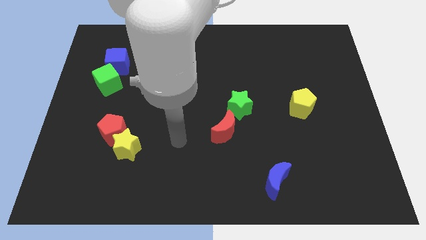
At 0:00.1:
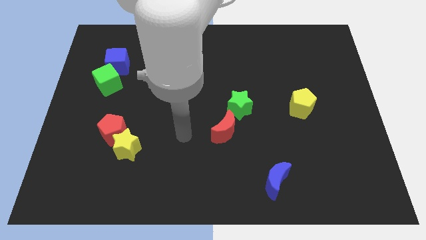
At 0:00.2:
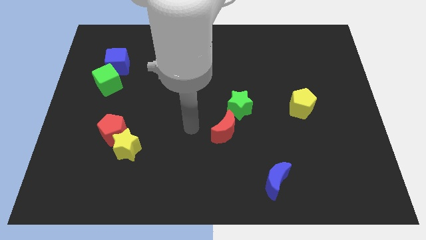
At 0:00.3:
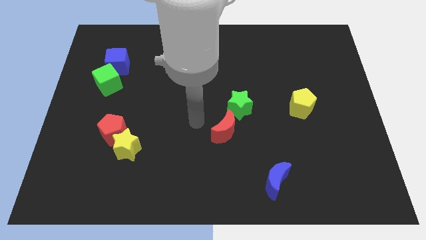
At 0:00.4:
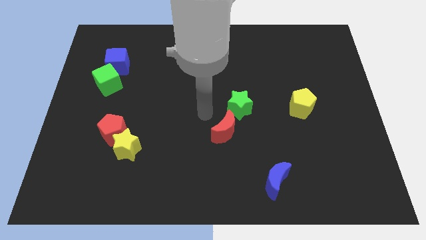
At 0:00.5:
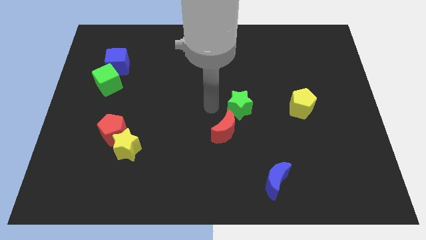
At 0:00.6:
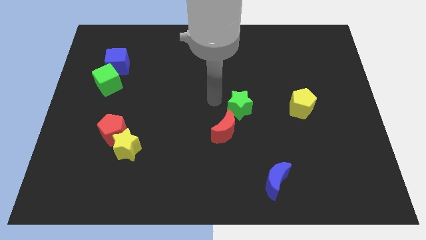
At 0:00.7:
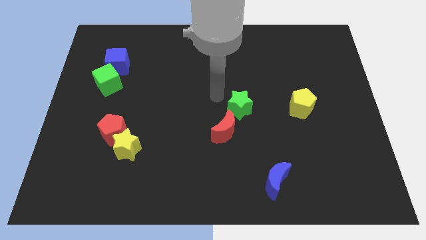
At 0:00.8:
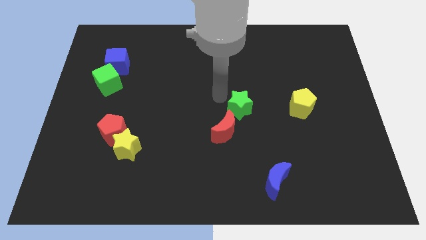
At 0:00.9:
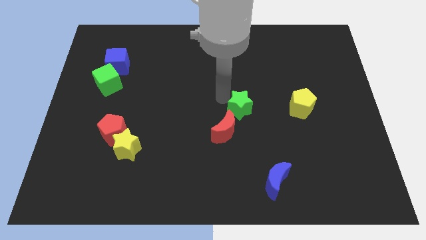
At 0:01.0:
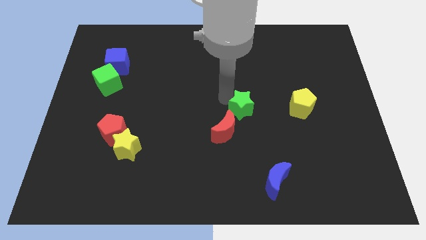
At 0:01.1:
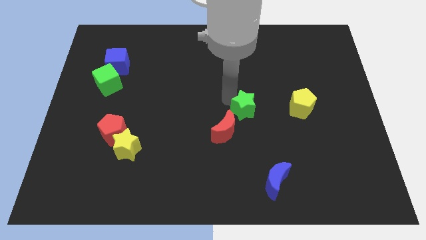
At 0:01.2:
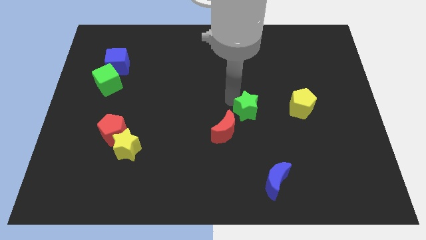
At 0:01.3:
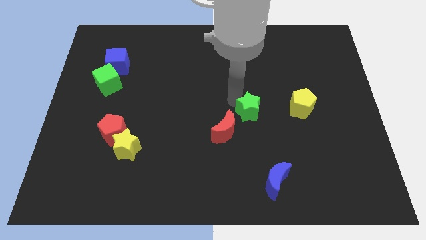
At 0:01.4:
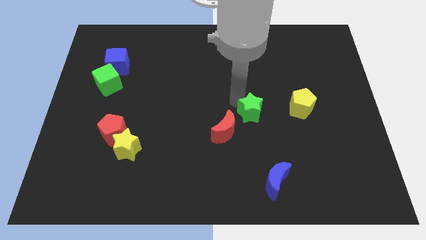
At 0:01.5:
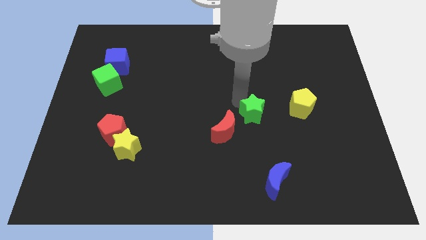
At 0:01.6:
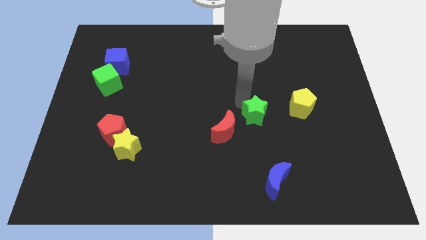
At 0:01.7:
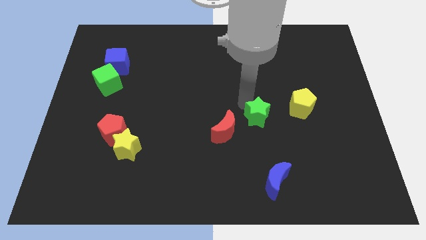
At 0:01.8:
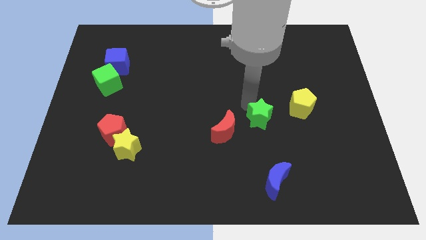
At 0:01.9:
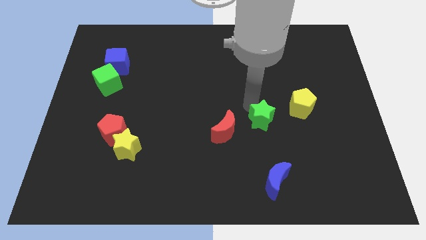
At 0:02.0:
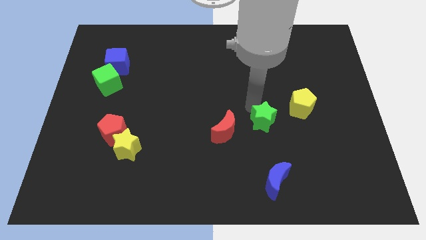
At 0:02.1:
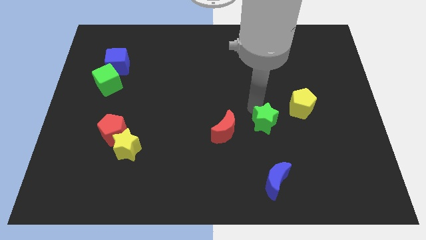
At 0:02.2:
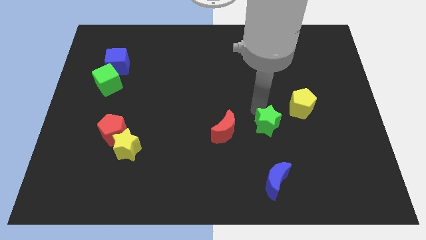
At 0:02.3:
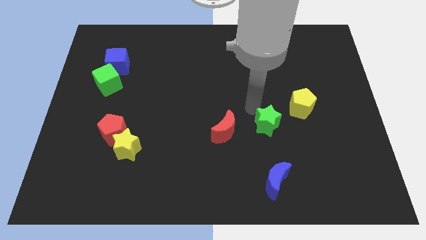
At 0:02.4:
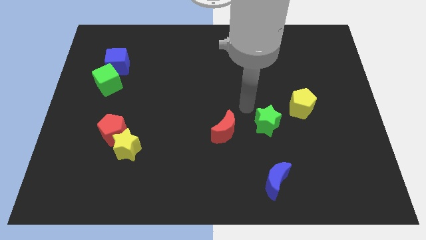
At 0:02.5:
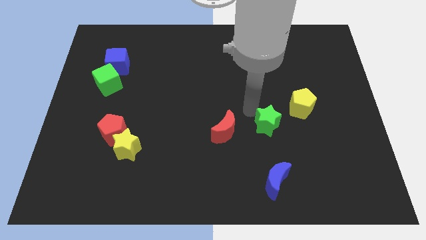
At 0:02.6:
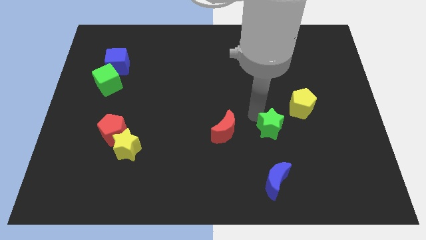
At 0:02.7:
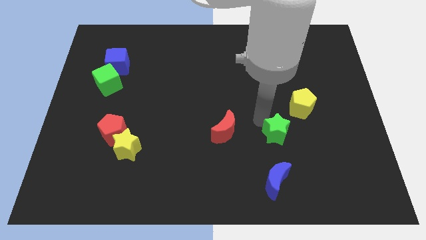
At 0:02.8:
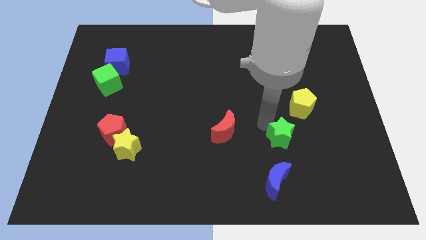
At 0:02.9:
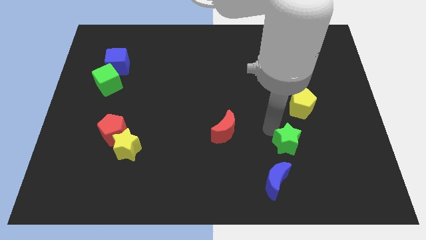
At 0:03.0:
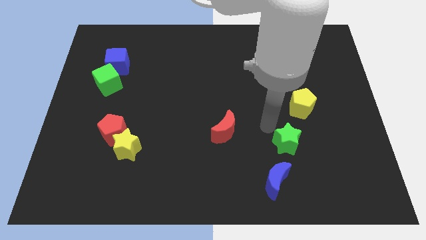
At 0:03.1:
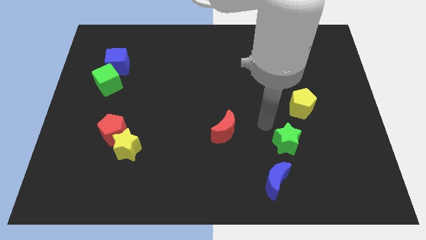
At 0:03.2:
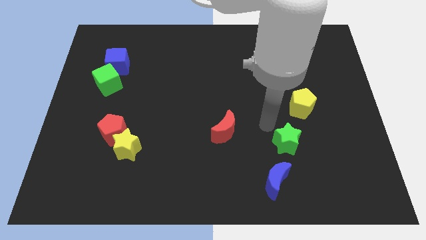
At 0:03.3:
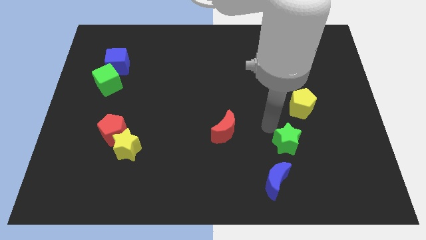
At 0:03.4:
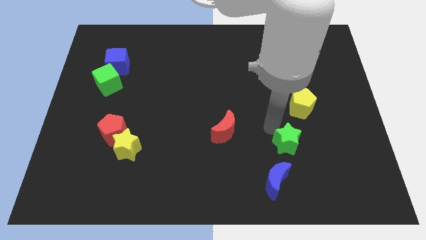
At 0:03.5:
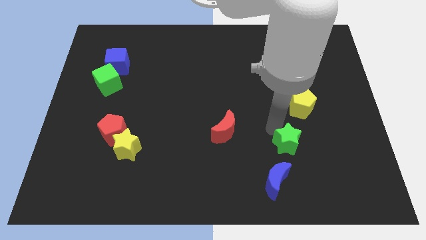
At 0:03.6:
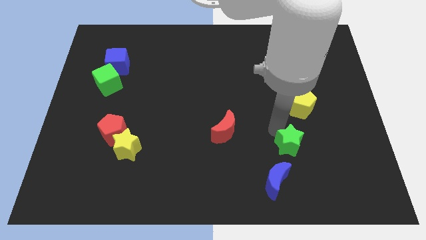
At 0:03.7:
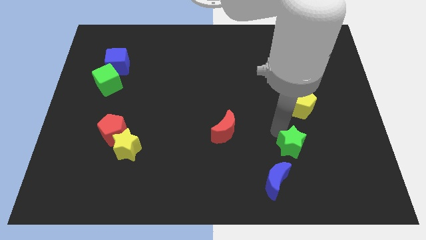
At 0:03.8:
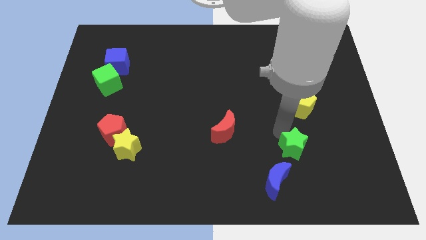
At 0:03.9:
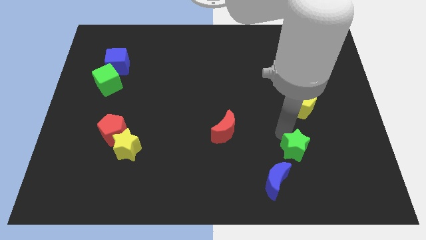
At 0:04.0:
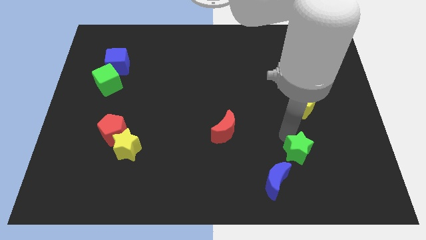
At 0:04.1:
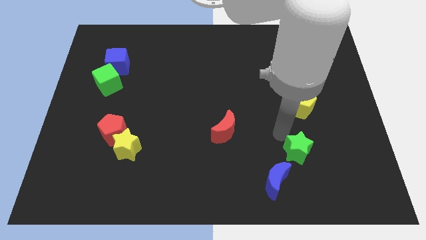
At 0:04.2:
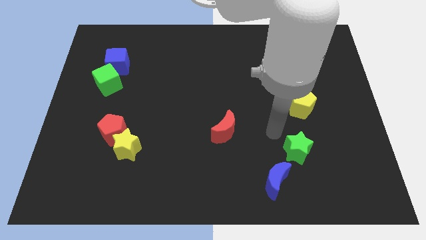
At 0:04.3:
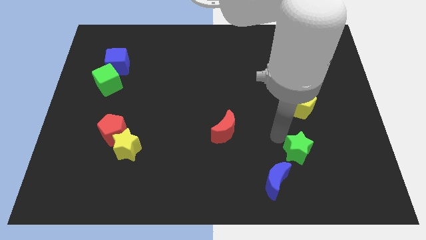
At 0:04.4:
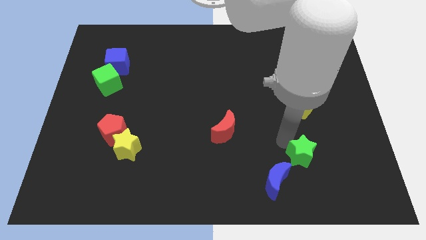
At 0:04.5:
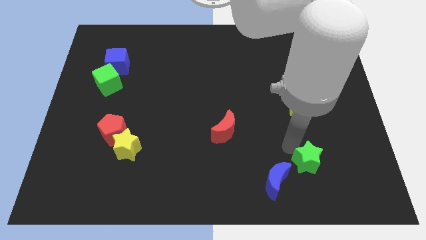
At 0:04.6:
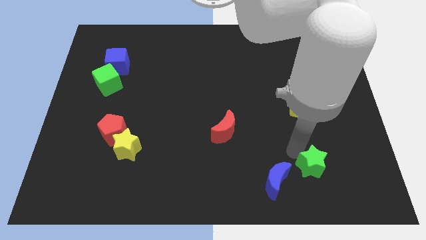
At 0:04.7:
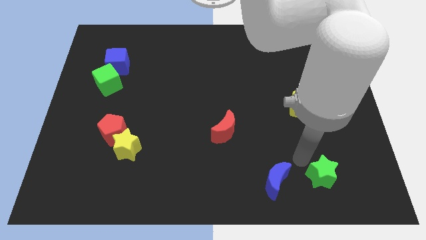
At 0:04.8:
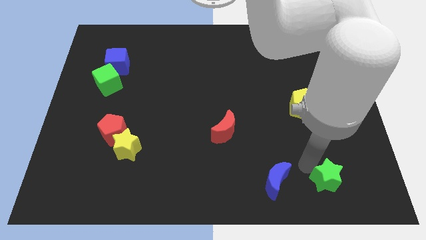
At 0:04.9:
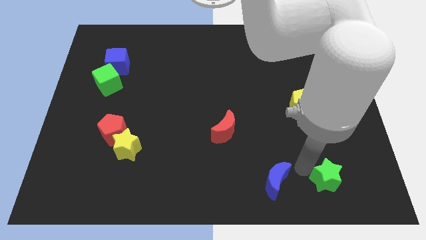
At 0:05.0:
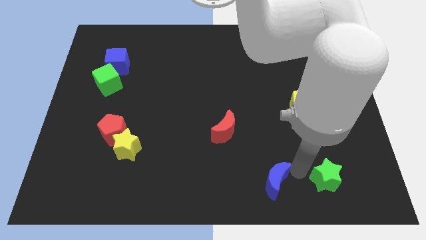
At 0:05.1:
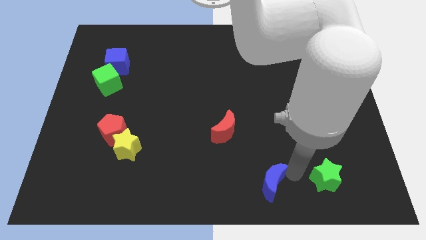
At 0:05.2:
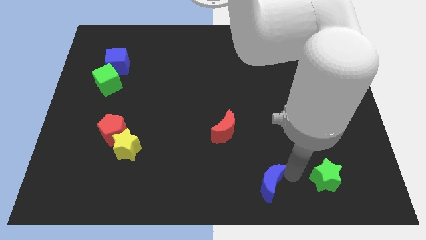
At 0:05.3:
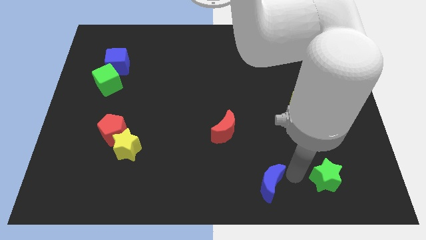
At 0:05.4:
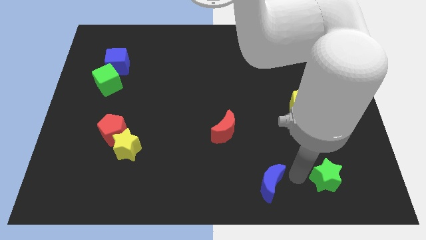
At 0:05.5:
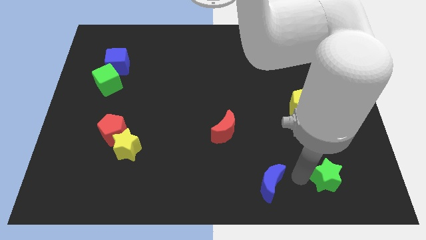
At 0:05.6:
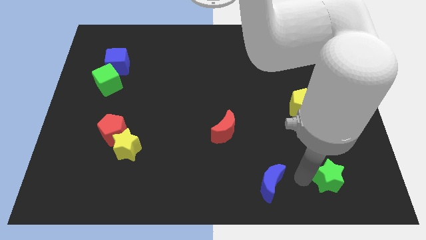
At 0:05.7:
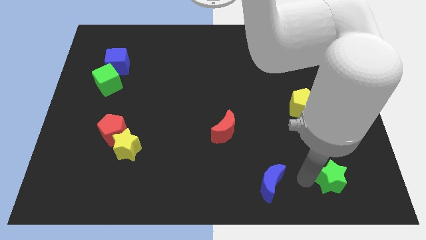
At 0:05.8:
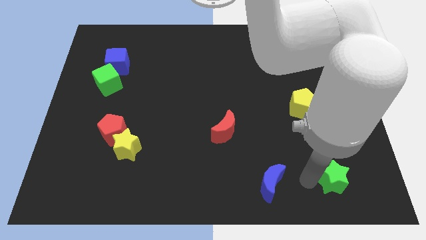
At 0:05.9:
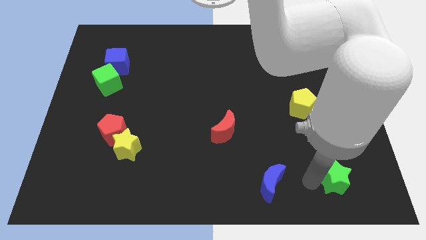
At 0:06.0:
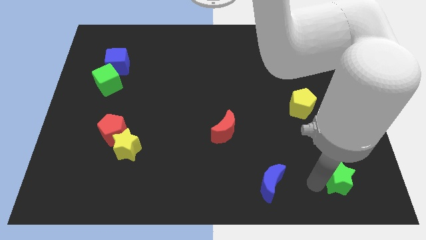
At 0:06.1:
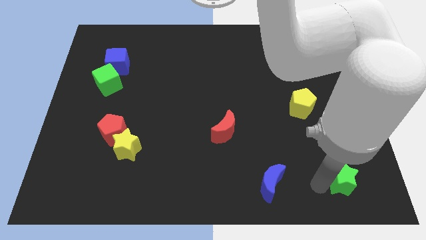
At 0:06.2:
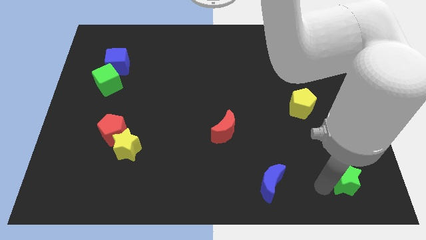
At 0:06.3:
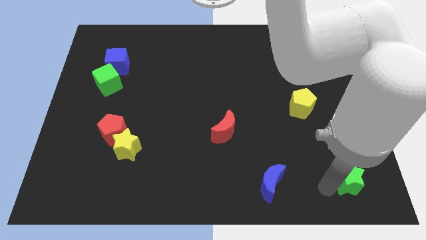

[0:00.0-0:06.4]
slide the green star to the lower right corner

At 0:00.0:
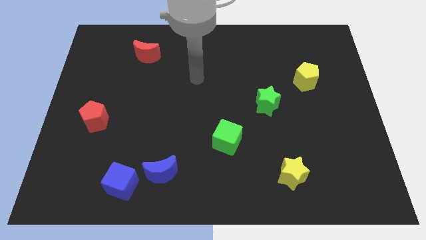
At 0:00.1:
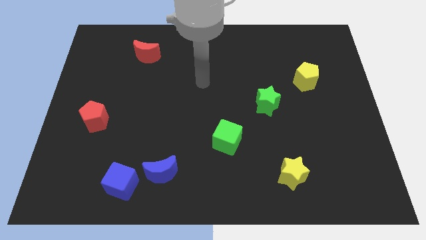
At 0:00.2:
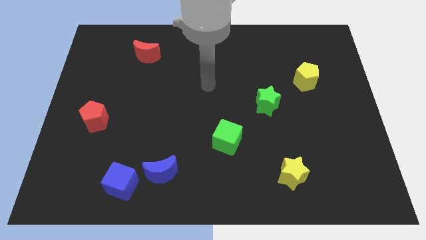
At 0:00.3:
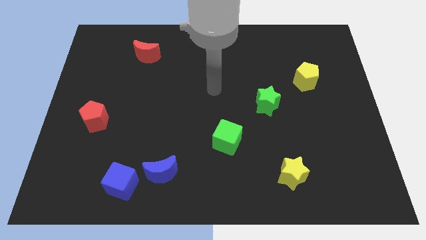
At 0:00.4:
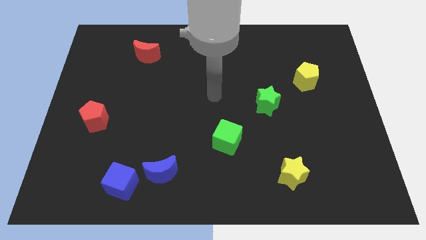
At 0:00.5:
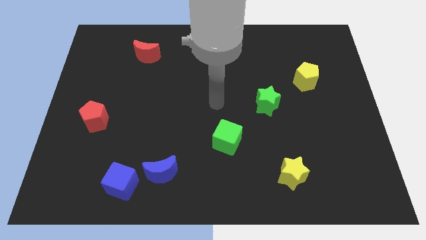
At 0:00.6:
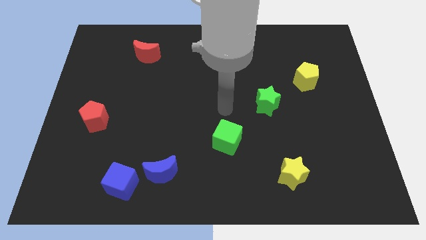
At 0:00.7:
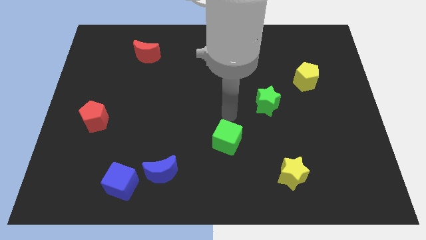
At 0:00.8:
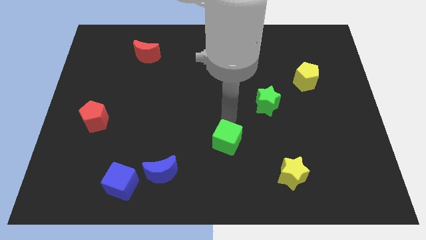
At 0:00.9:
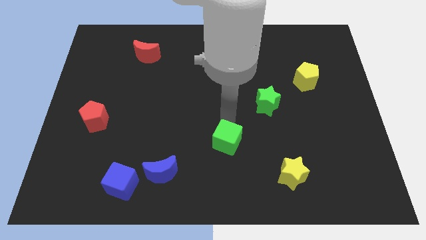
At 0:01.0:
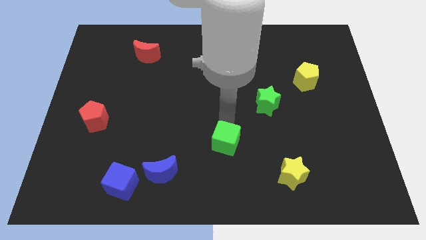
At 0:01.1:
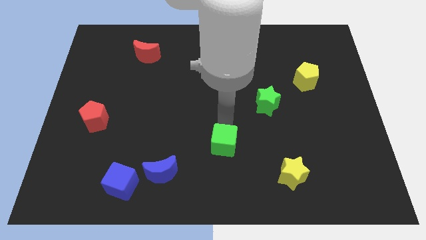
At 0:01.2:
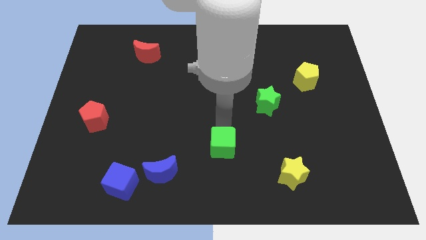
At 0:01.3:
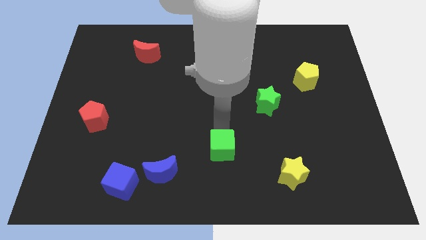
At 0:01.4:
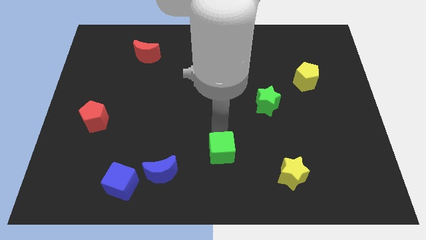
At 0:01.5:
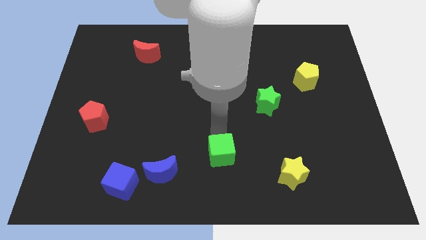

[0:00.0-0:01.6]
move the green cube to the bottom side
